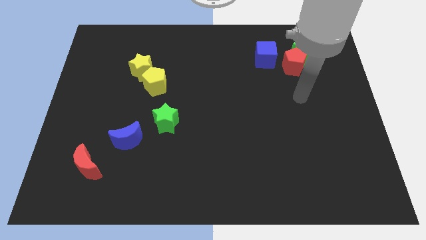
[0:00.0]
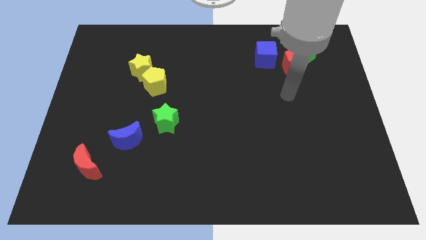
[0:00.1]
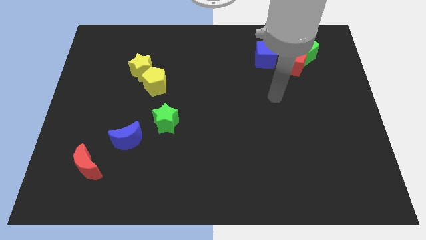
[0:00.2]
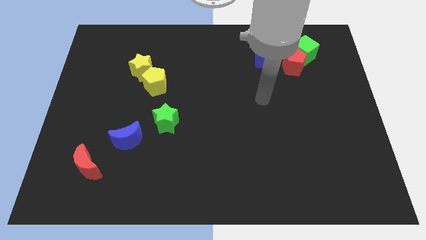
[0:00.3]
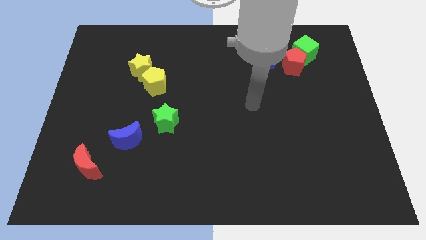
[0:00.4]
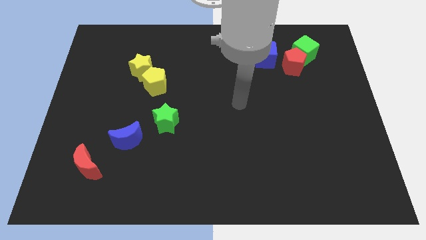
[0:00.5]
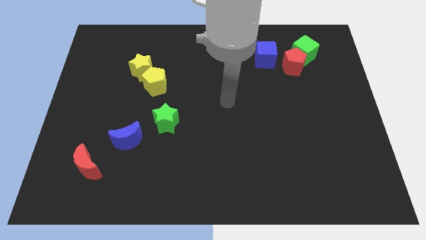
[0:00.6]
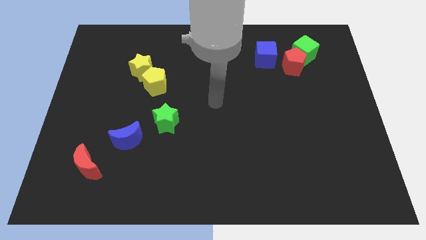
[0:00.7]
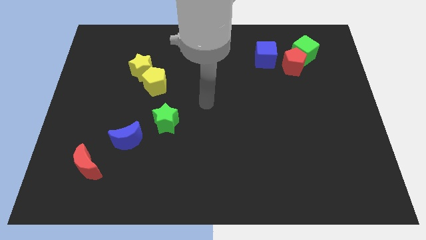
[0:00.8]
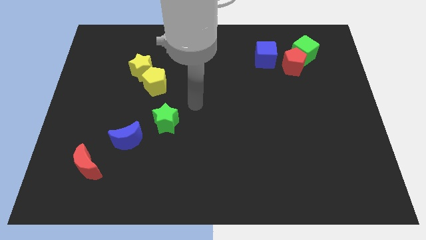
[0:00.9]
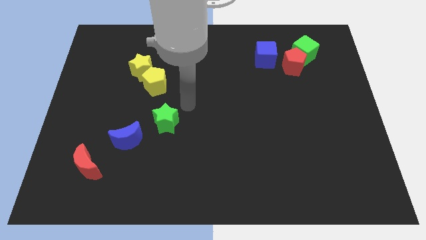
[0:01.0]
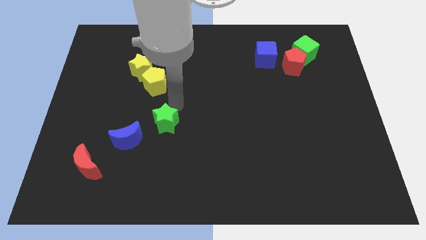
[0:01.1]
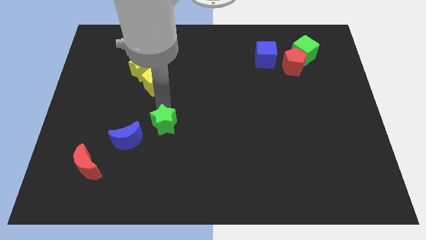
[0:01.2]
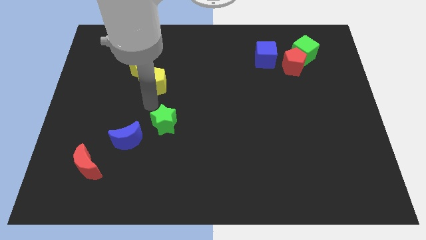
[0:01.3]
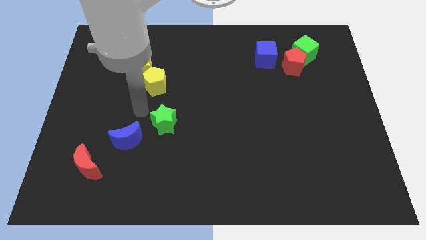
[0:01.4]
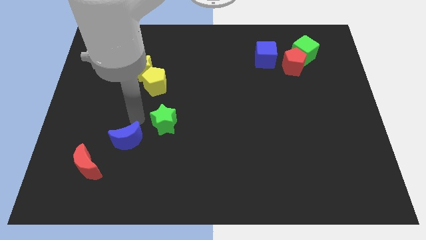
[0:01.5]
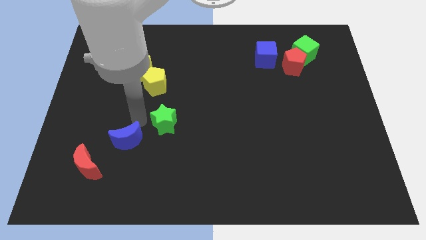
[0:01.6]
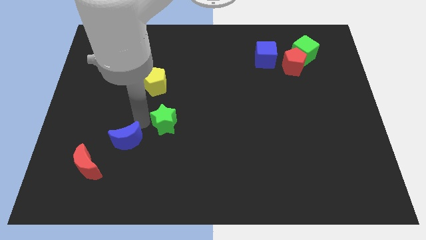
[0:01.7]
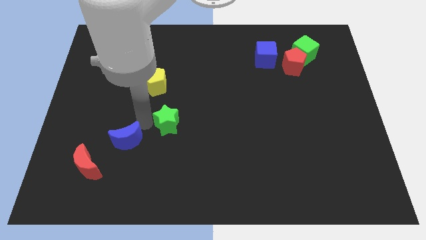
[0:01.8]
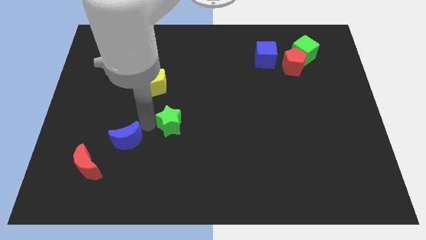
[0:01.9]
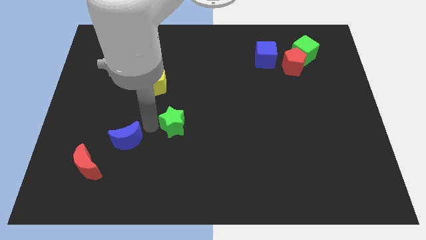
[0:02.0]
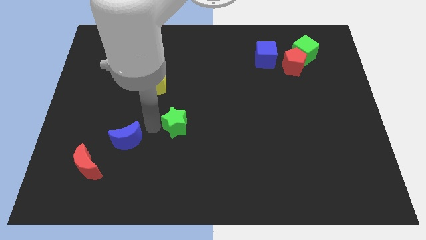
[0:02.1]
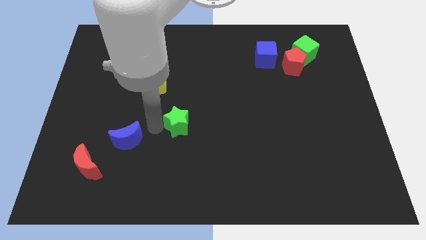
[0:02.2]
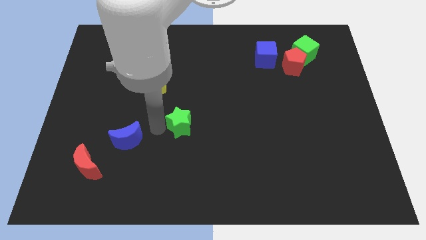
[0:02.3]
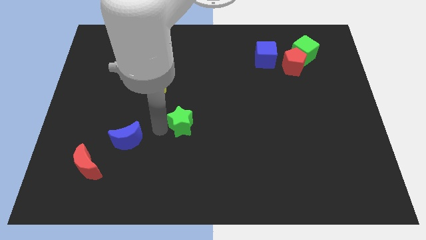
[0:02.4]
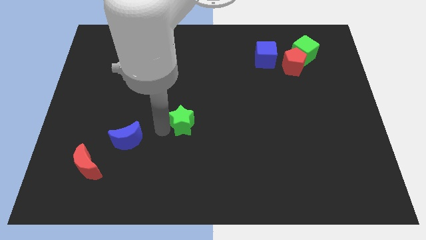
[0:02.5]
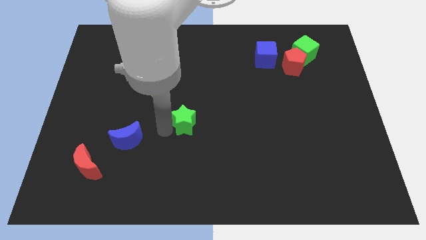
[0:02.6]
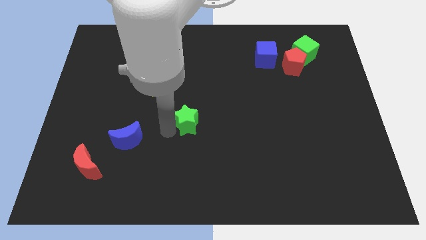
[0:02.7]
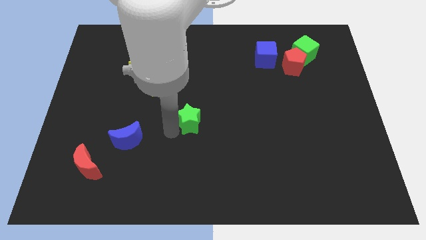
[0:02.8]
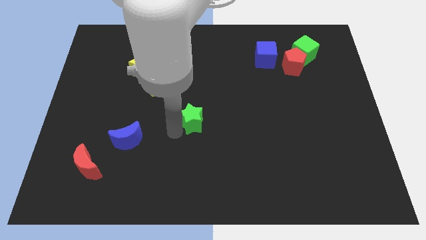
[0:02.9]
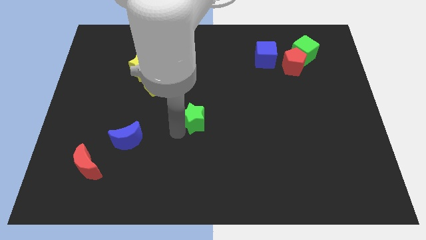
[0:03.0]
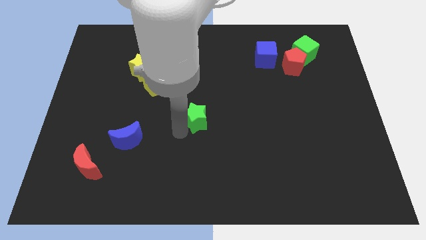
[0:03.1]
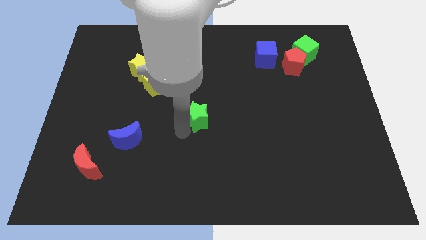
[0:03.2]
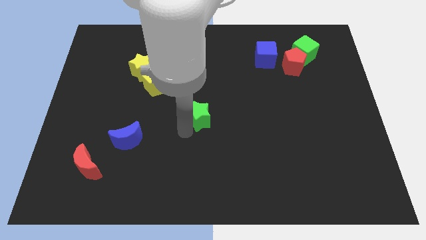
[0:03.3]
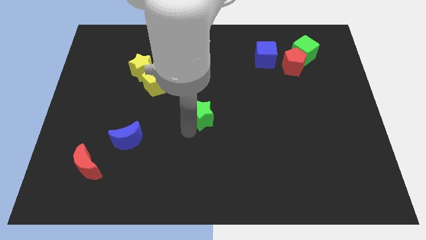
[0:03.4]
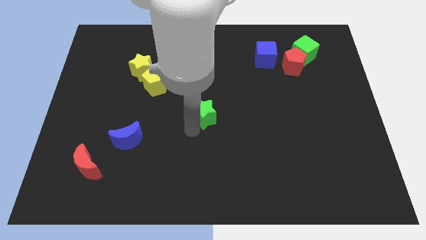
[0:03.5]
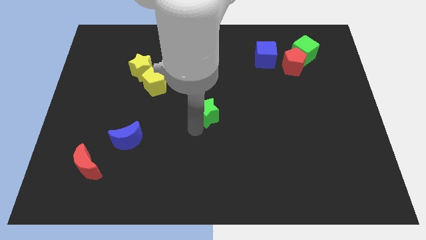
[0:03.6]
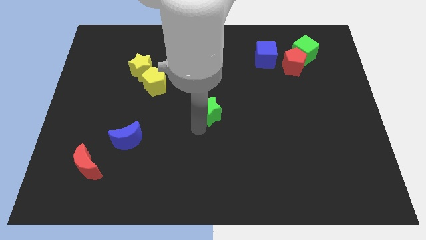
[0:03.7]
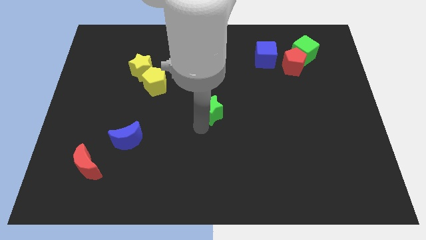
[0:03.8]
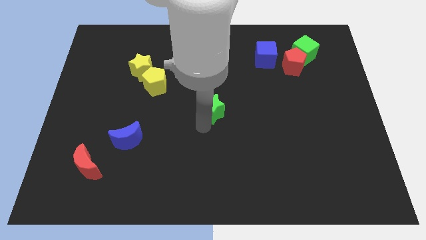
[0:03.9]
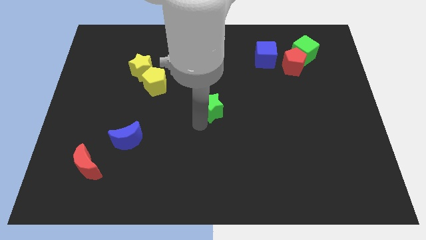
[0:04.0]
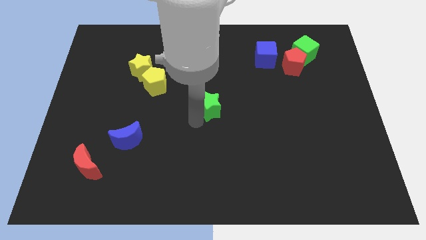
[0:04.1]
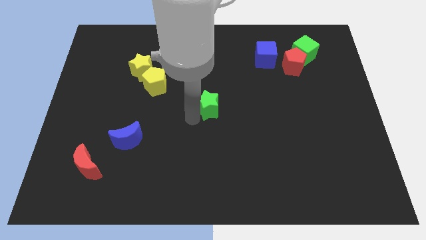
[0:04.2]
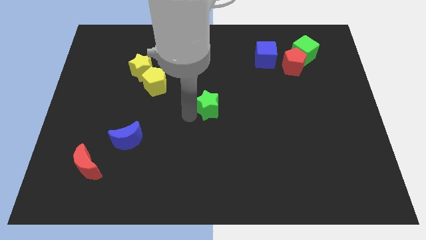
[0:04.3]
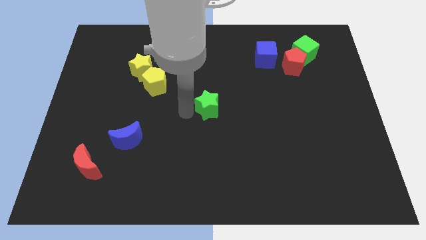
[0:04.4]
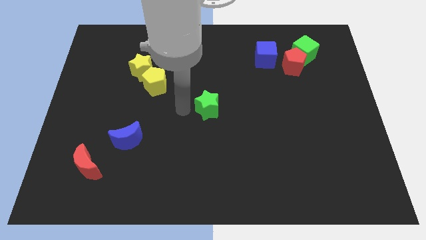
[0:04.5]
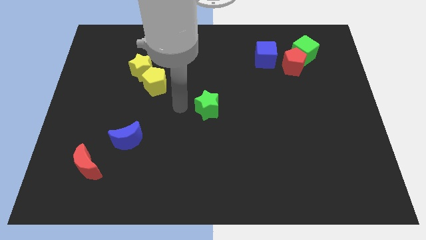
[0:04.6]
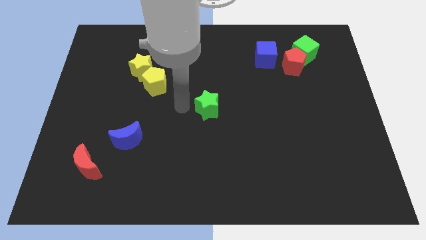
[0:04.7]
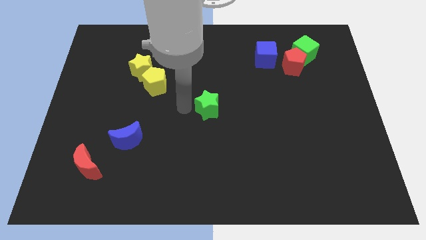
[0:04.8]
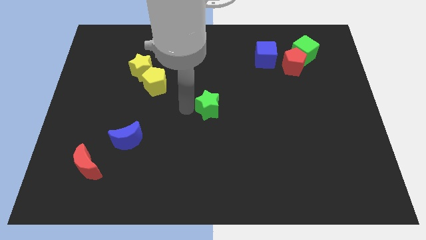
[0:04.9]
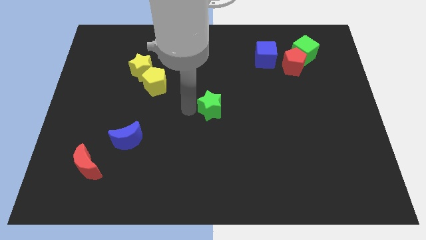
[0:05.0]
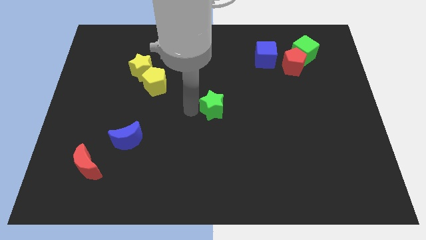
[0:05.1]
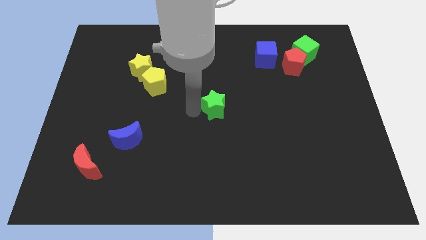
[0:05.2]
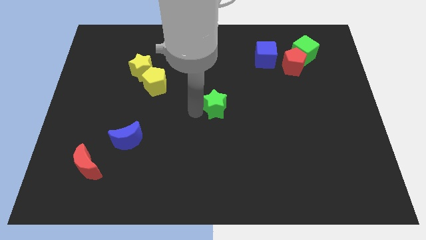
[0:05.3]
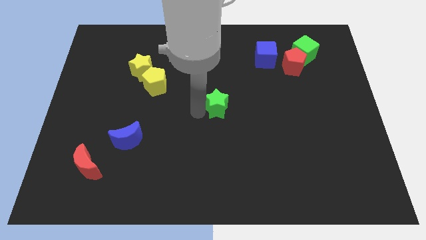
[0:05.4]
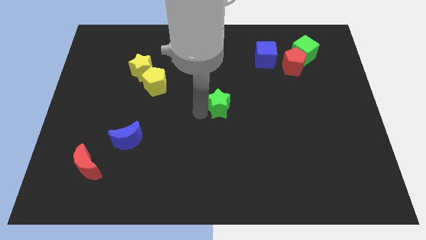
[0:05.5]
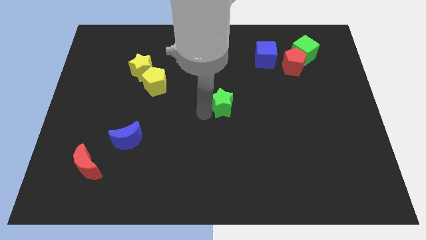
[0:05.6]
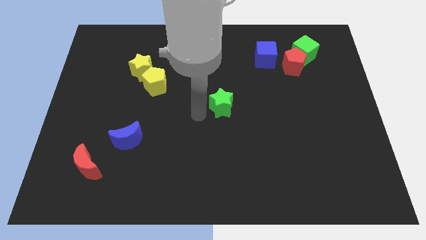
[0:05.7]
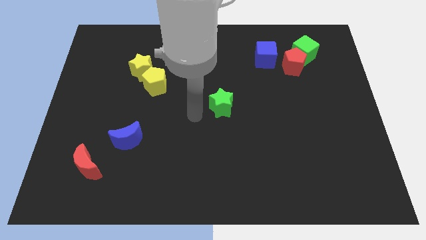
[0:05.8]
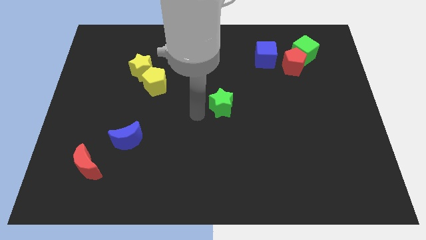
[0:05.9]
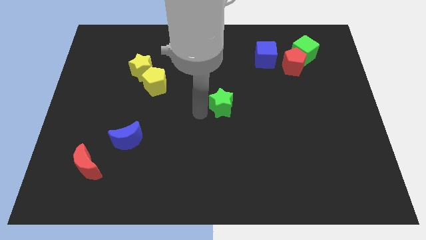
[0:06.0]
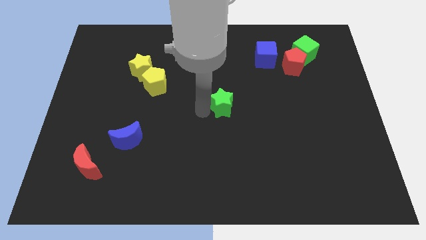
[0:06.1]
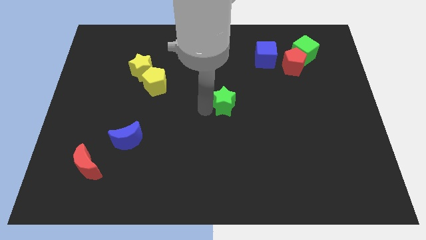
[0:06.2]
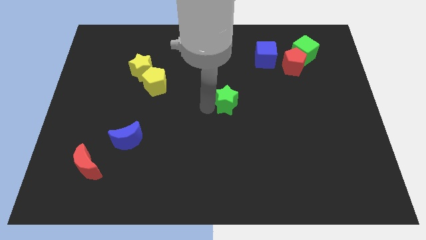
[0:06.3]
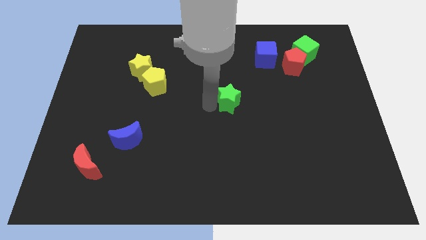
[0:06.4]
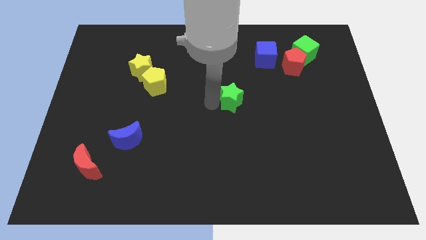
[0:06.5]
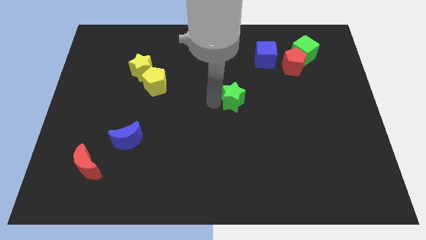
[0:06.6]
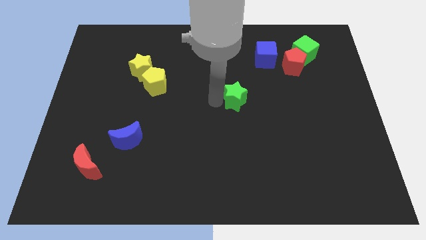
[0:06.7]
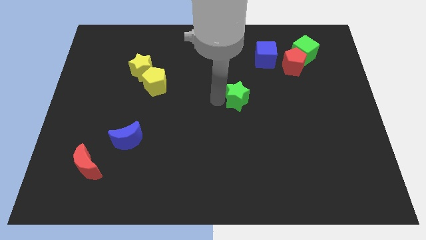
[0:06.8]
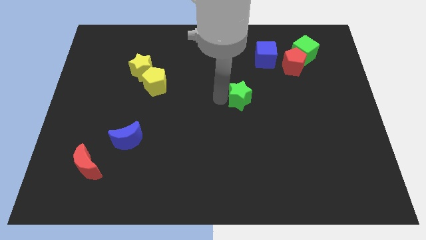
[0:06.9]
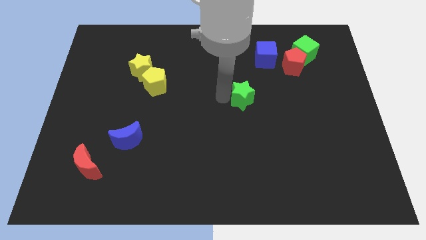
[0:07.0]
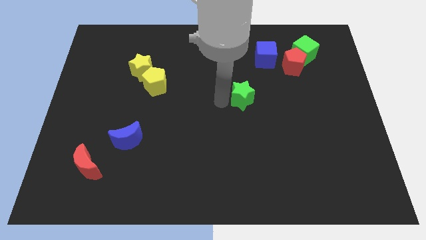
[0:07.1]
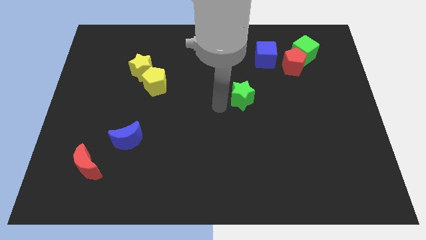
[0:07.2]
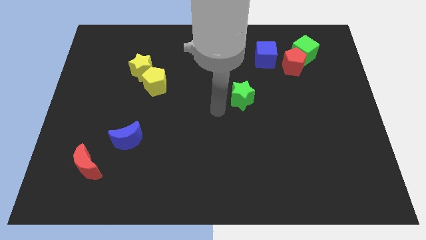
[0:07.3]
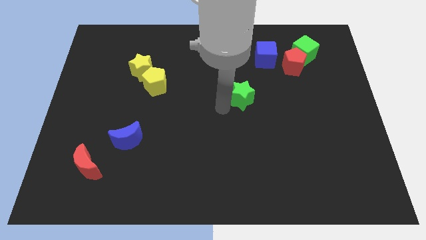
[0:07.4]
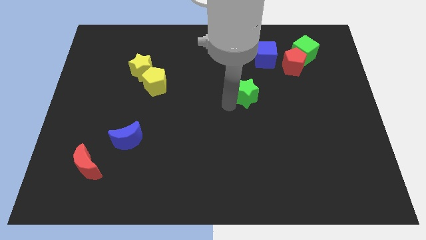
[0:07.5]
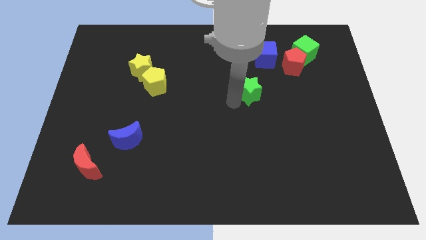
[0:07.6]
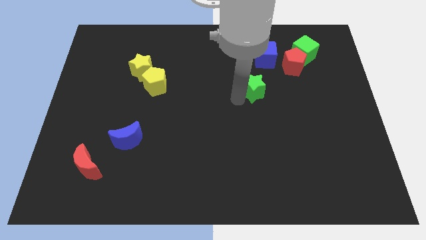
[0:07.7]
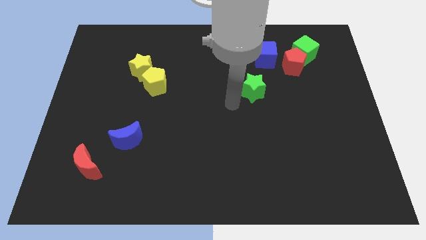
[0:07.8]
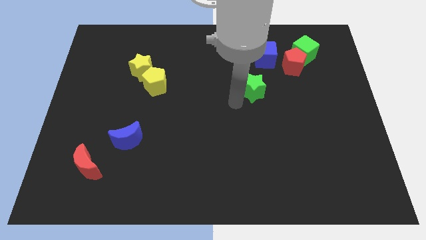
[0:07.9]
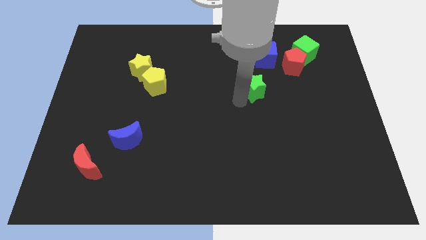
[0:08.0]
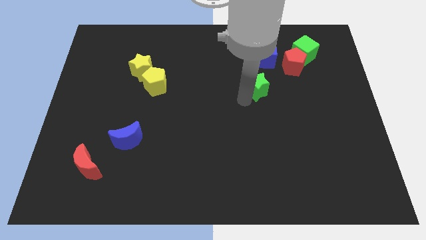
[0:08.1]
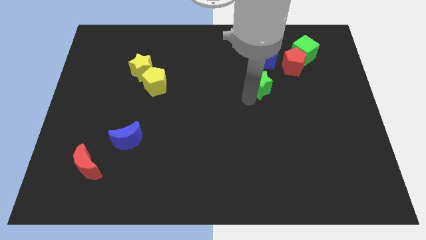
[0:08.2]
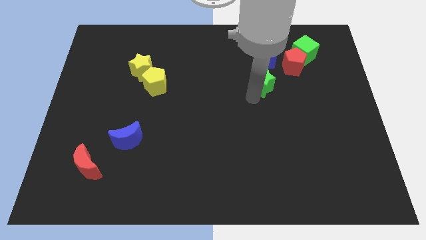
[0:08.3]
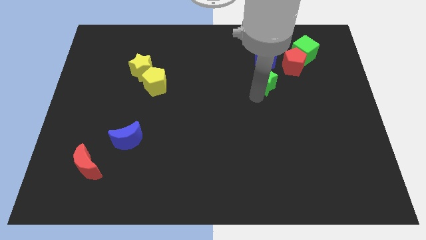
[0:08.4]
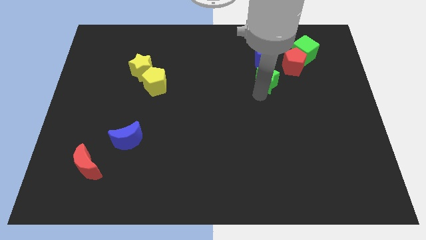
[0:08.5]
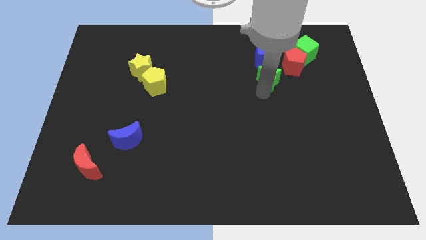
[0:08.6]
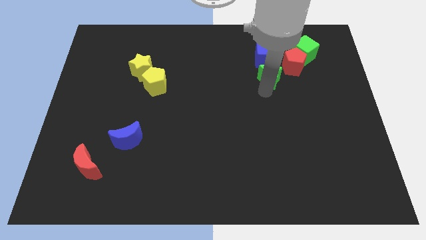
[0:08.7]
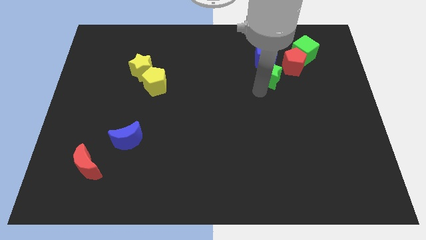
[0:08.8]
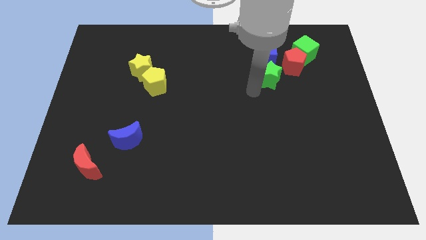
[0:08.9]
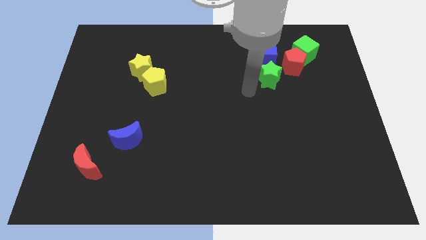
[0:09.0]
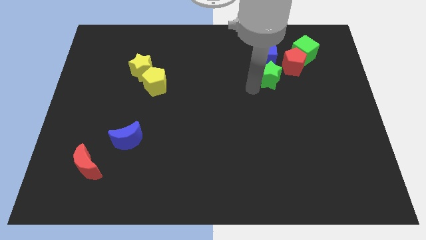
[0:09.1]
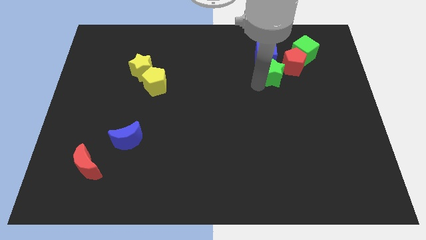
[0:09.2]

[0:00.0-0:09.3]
slide the green star to the bottom left side of the green cube
